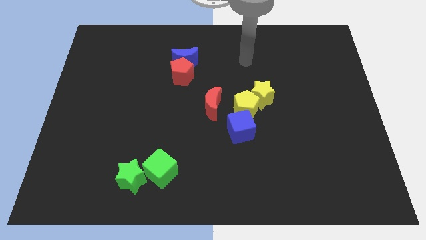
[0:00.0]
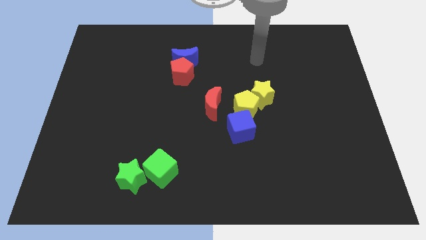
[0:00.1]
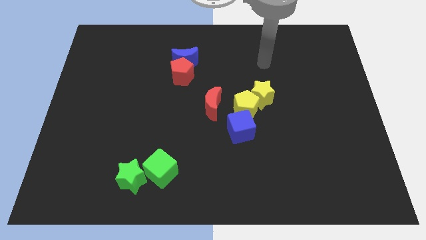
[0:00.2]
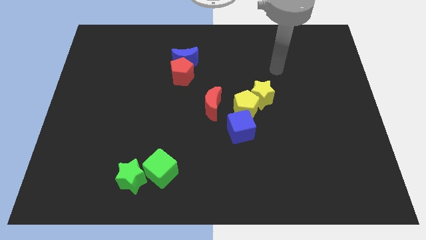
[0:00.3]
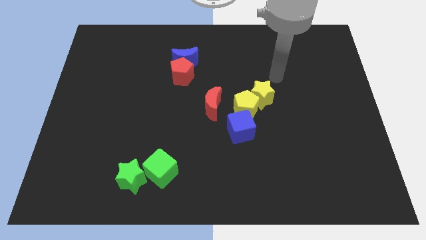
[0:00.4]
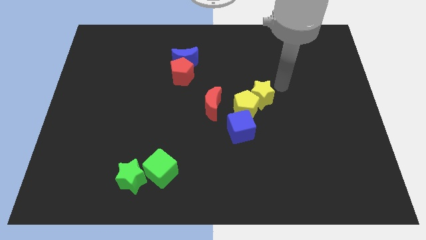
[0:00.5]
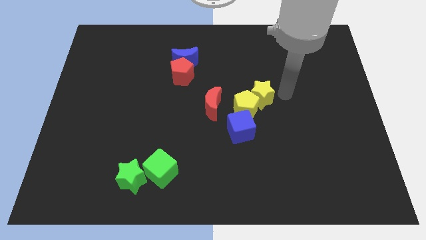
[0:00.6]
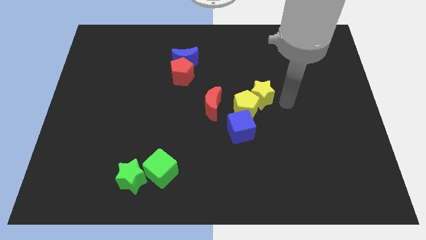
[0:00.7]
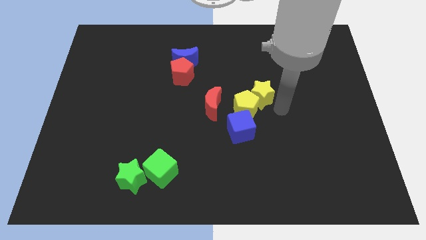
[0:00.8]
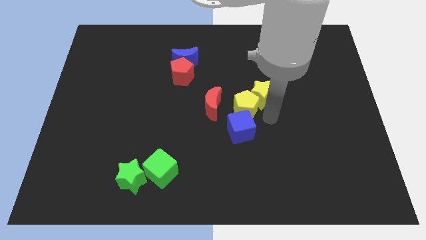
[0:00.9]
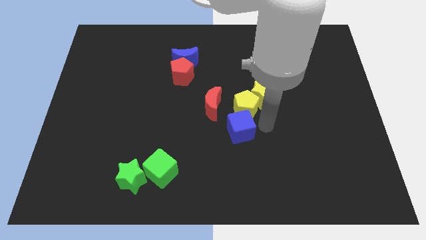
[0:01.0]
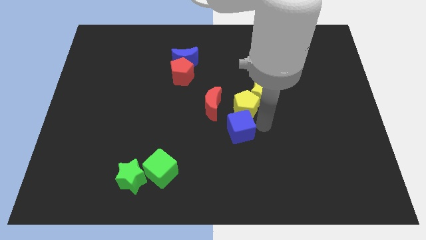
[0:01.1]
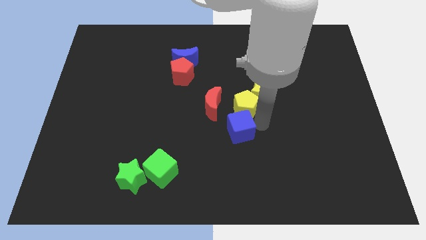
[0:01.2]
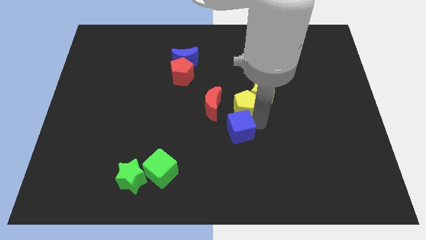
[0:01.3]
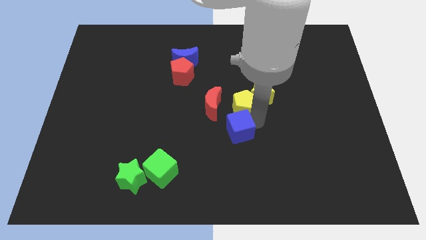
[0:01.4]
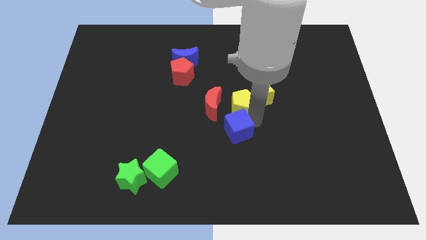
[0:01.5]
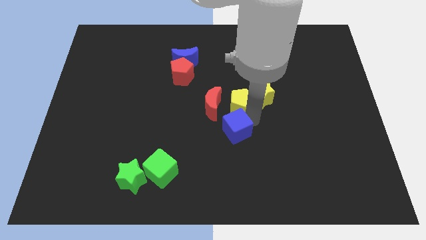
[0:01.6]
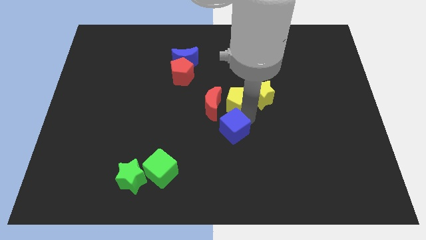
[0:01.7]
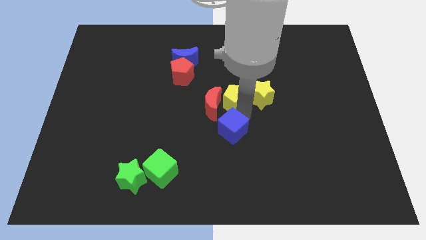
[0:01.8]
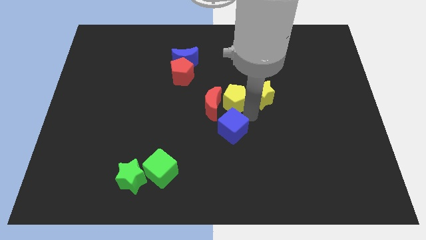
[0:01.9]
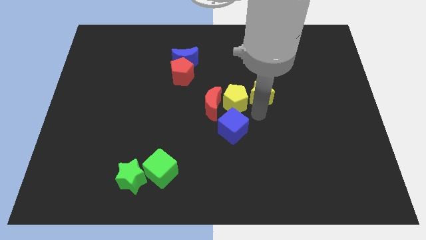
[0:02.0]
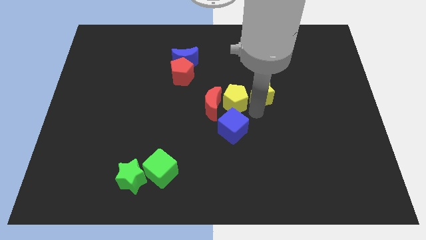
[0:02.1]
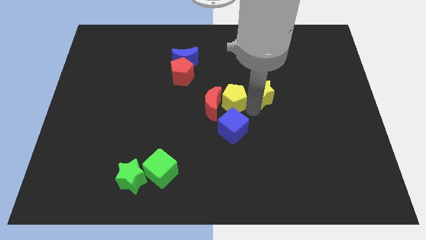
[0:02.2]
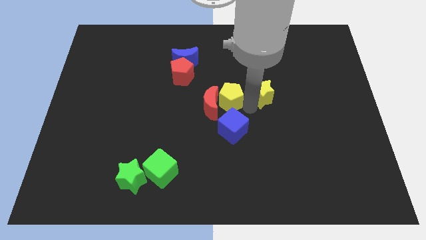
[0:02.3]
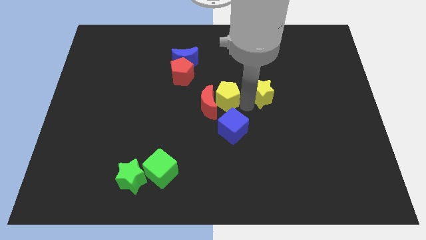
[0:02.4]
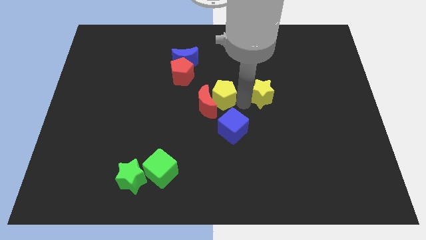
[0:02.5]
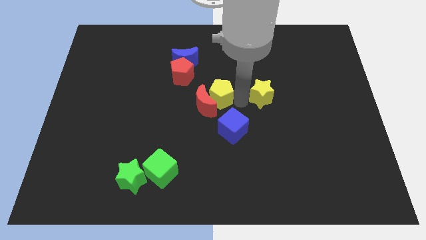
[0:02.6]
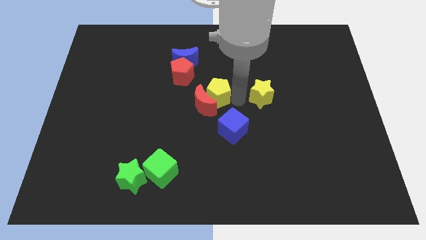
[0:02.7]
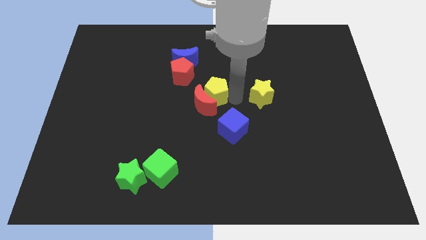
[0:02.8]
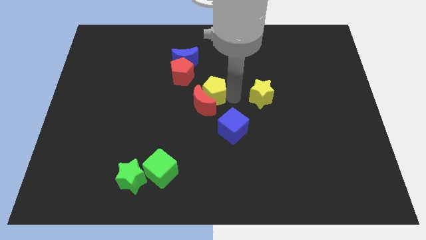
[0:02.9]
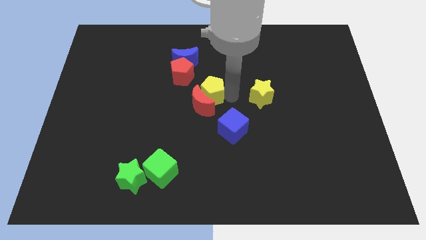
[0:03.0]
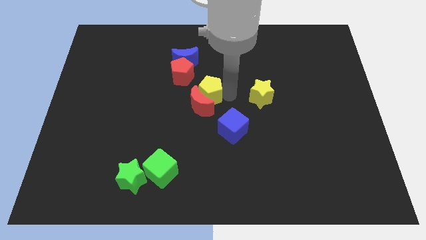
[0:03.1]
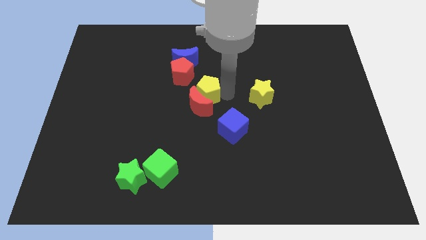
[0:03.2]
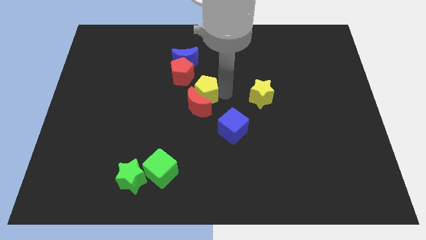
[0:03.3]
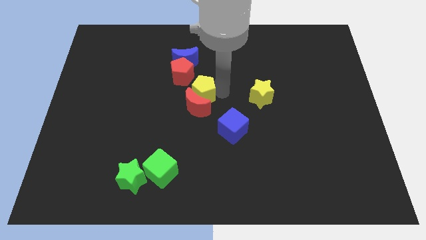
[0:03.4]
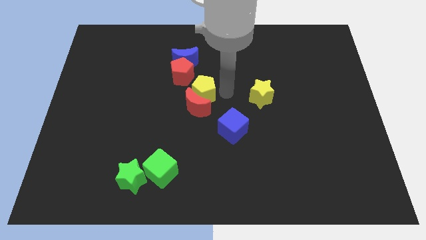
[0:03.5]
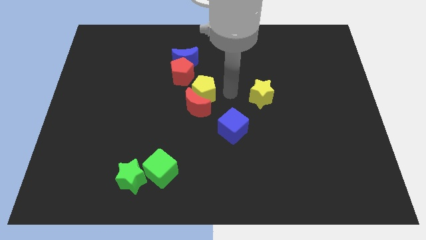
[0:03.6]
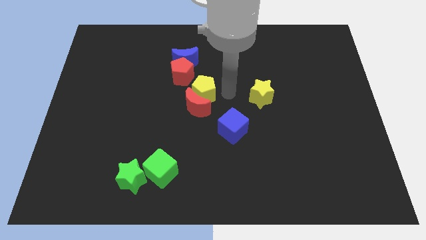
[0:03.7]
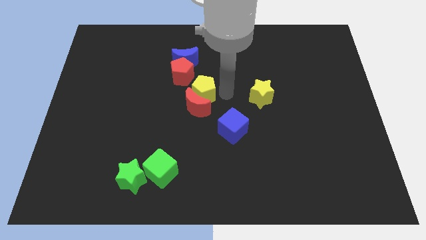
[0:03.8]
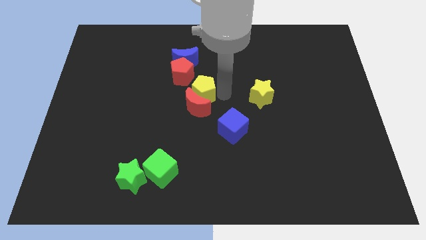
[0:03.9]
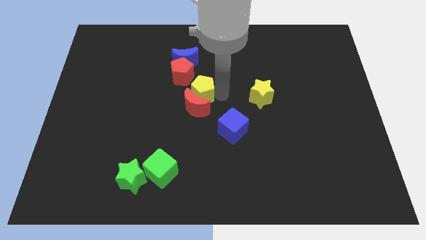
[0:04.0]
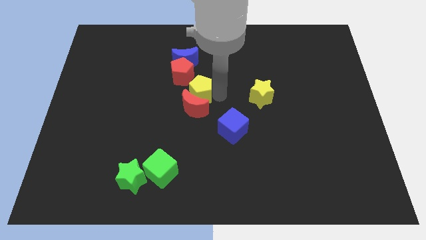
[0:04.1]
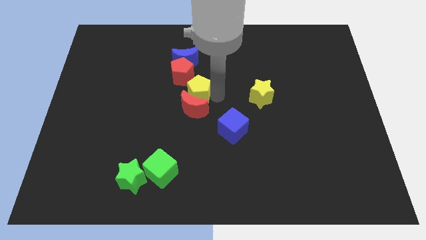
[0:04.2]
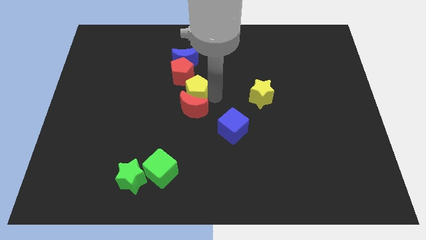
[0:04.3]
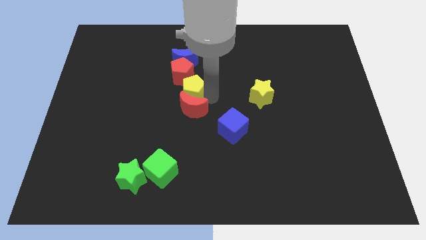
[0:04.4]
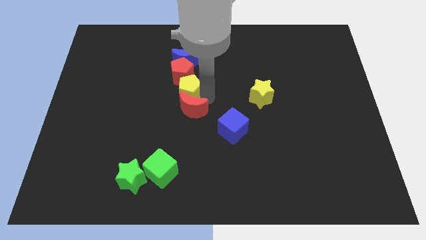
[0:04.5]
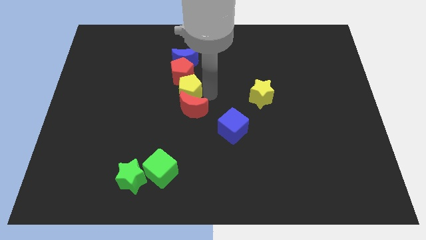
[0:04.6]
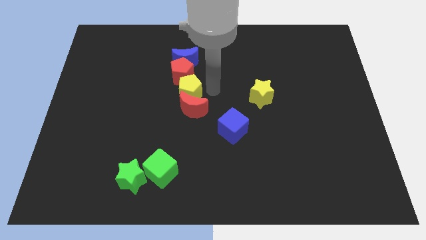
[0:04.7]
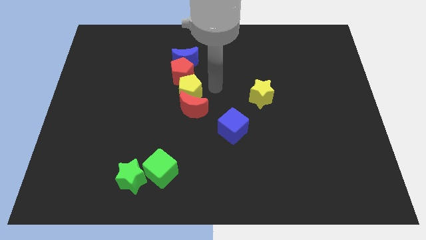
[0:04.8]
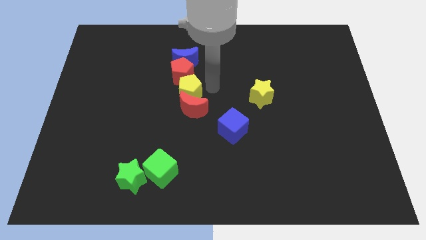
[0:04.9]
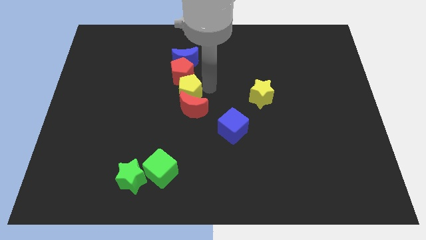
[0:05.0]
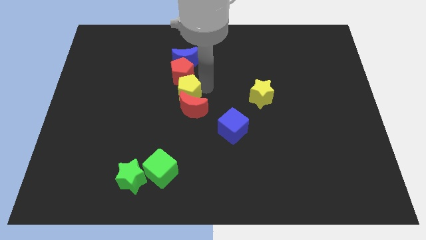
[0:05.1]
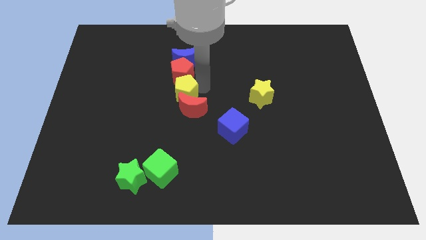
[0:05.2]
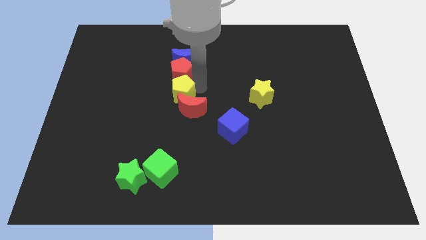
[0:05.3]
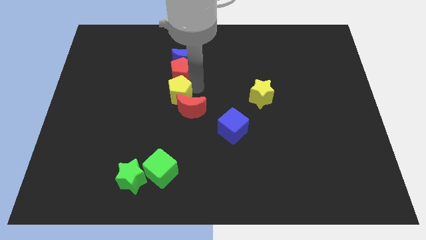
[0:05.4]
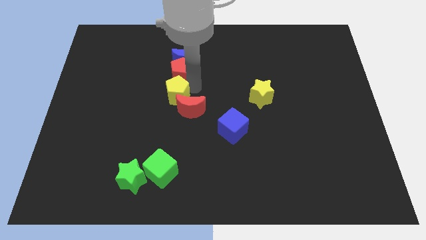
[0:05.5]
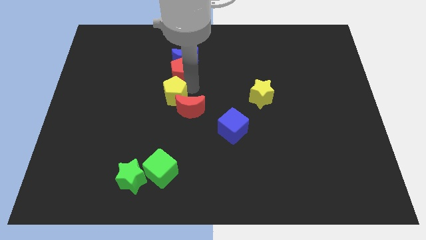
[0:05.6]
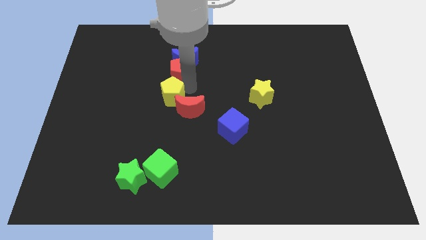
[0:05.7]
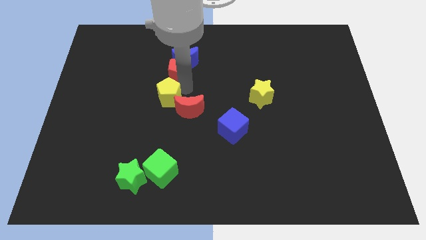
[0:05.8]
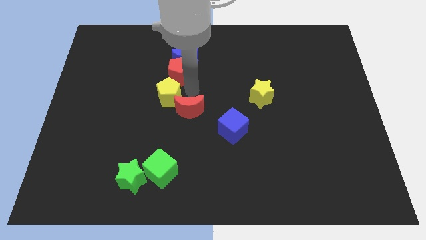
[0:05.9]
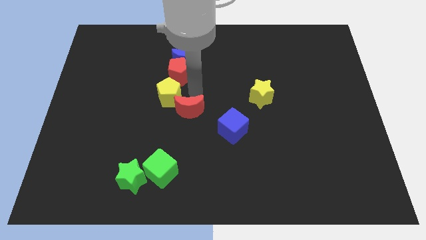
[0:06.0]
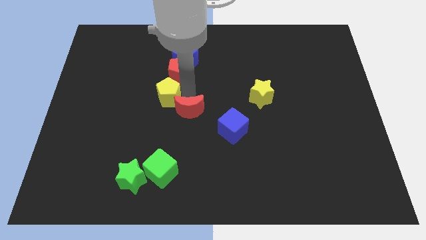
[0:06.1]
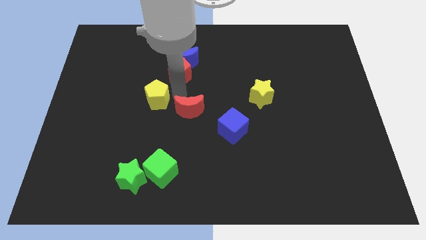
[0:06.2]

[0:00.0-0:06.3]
slide the yellow pentagon left

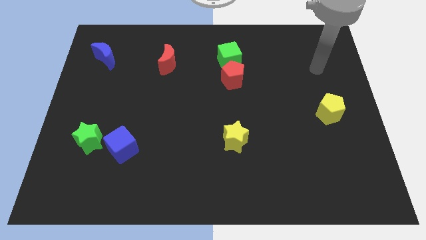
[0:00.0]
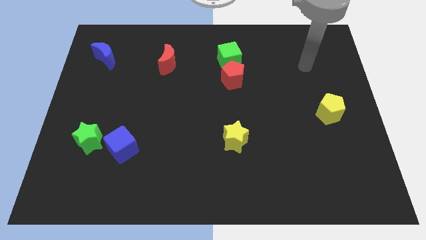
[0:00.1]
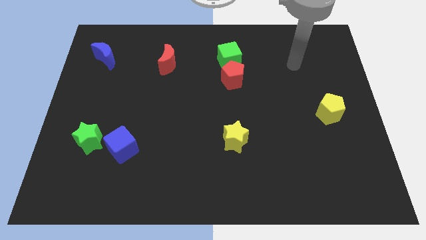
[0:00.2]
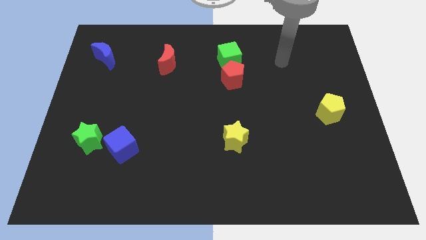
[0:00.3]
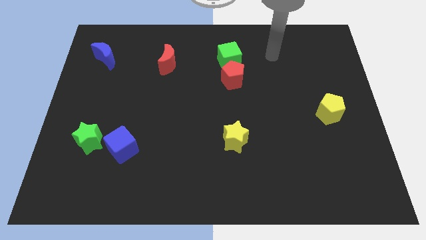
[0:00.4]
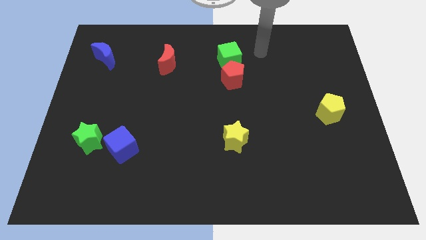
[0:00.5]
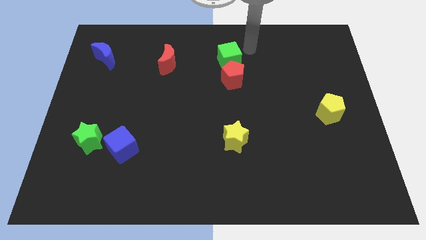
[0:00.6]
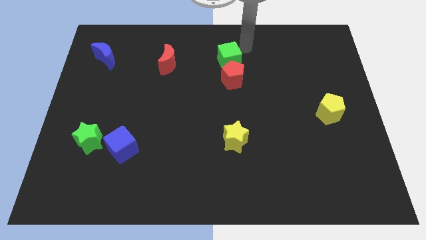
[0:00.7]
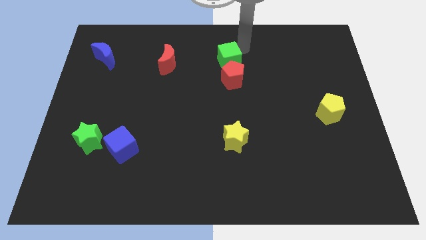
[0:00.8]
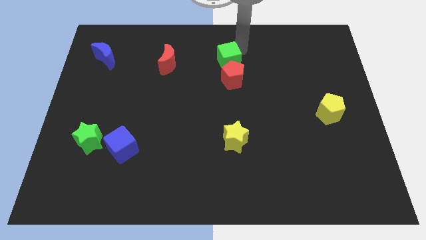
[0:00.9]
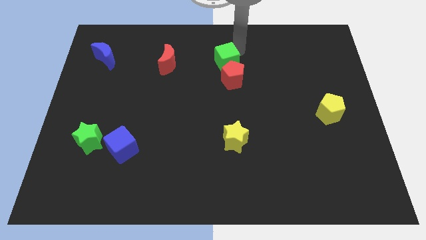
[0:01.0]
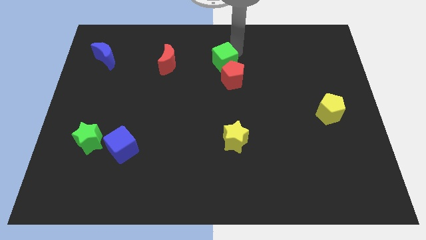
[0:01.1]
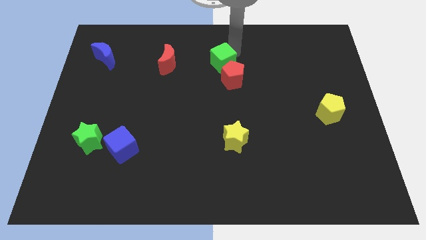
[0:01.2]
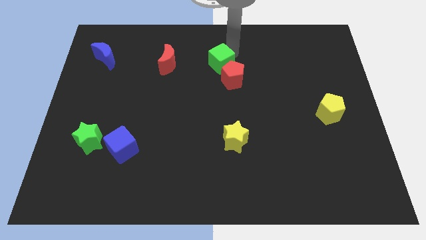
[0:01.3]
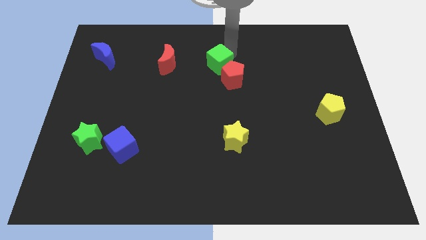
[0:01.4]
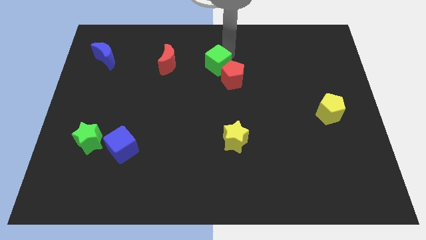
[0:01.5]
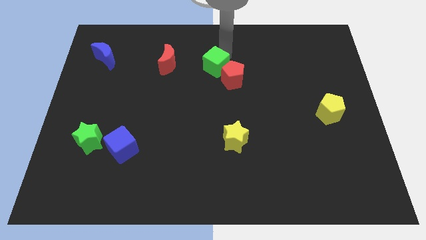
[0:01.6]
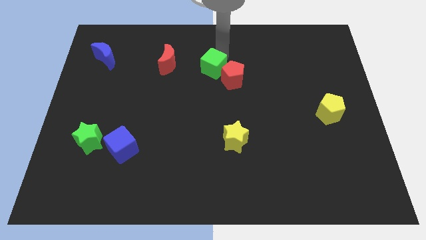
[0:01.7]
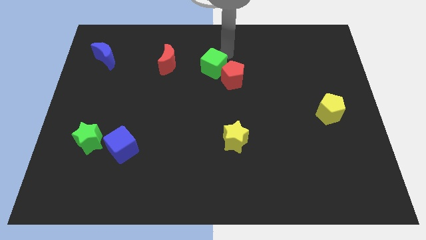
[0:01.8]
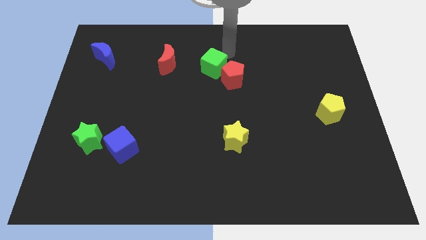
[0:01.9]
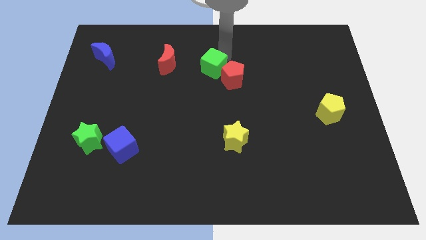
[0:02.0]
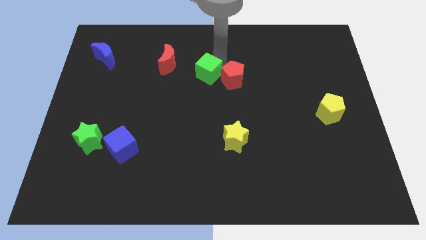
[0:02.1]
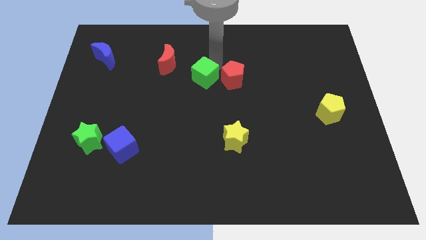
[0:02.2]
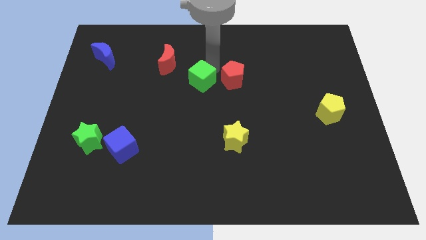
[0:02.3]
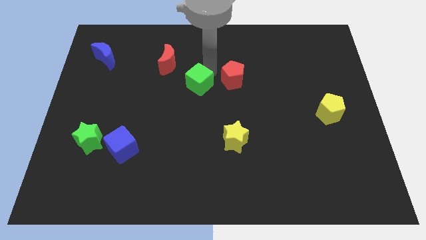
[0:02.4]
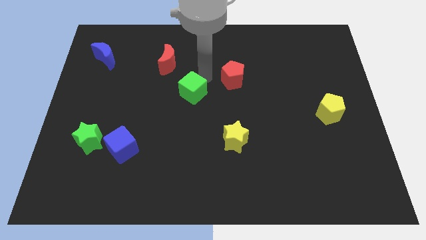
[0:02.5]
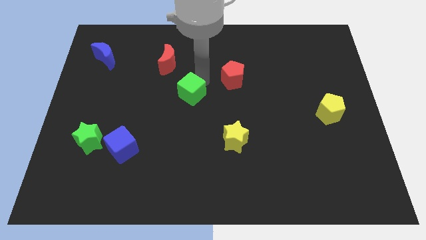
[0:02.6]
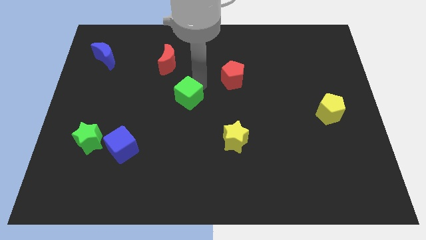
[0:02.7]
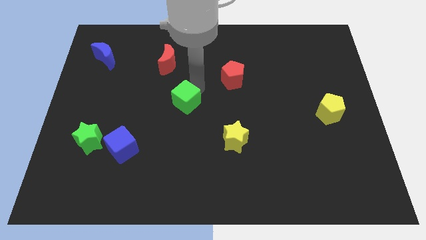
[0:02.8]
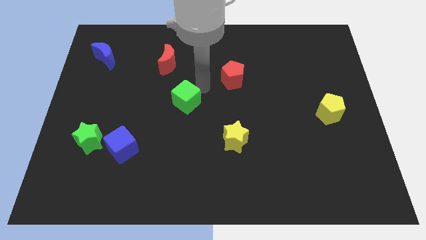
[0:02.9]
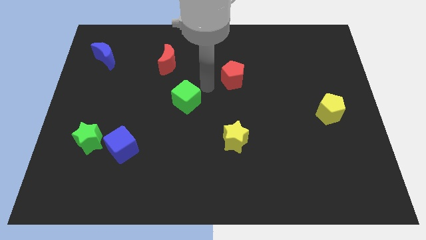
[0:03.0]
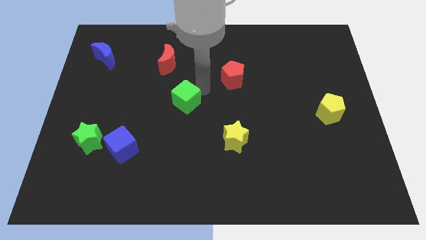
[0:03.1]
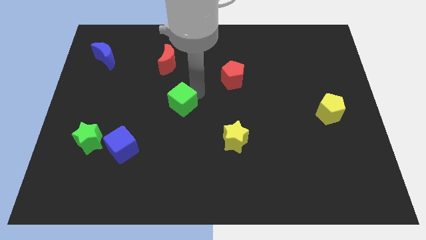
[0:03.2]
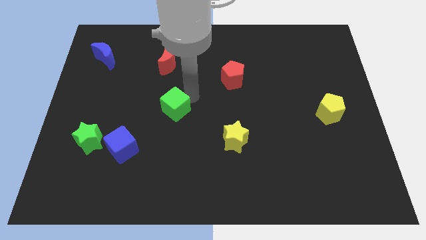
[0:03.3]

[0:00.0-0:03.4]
push the green cube downwards and to the left
